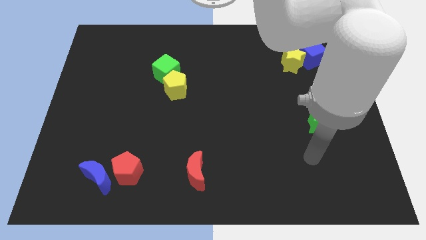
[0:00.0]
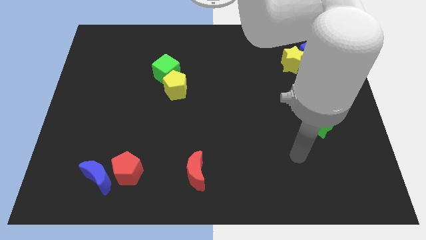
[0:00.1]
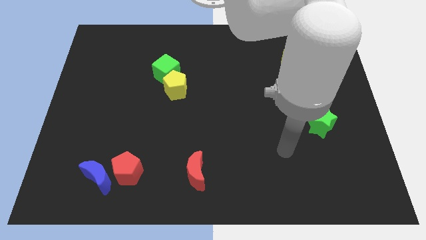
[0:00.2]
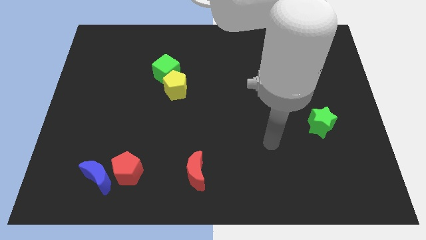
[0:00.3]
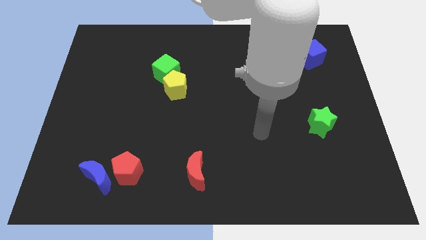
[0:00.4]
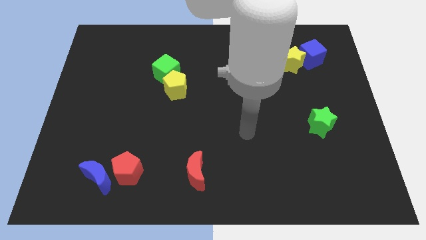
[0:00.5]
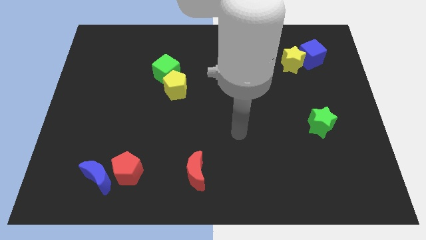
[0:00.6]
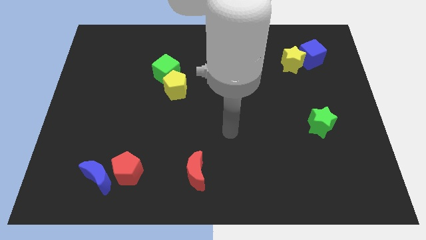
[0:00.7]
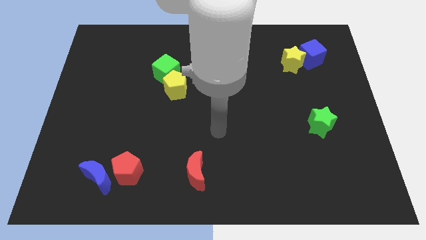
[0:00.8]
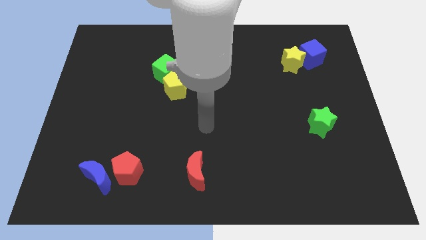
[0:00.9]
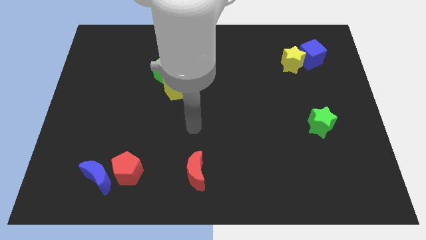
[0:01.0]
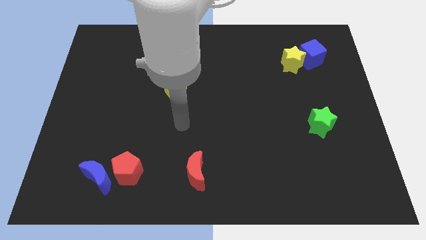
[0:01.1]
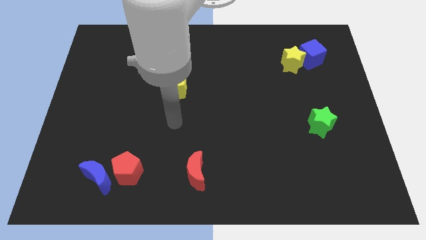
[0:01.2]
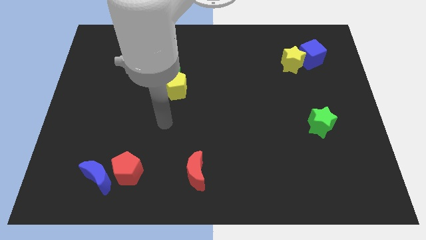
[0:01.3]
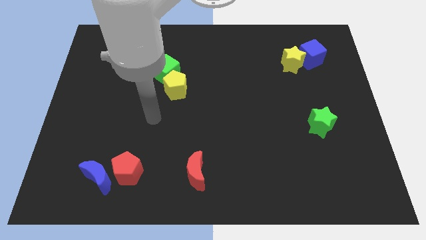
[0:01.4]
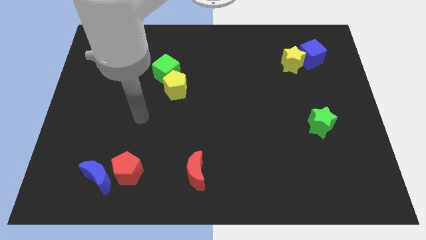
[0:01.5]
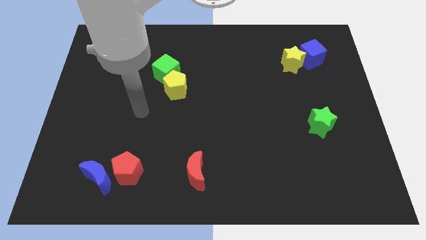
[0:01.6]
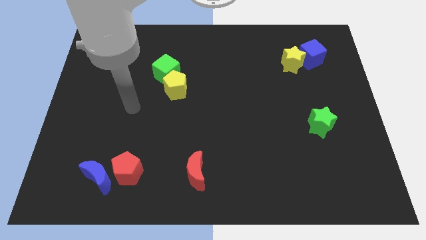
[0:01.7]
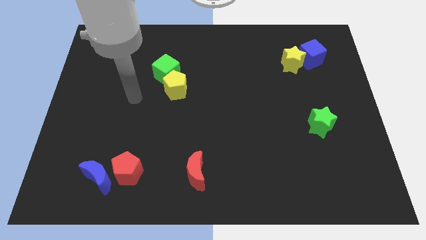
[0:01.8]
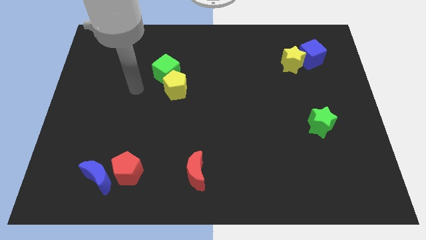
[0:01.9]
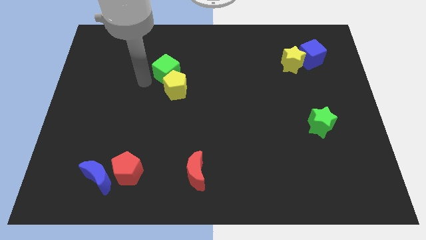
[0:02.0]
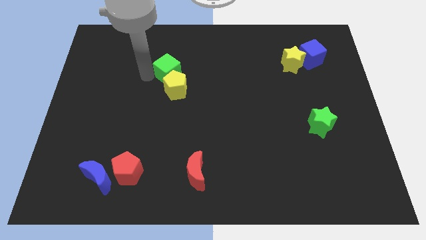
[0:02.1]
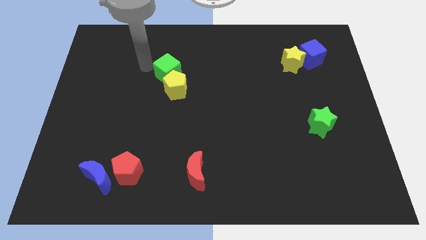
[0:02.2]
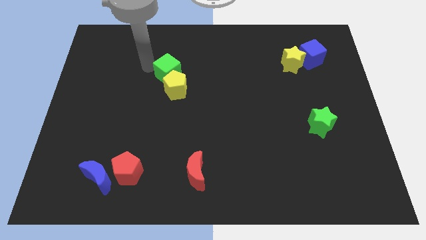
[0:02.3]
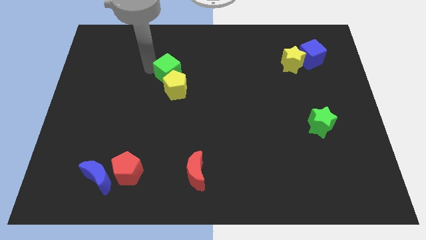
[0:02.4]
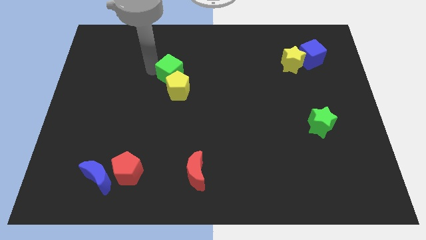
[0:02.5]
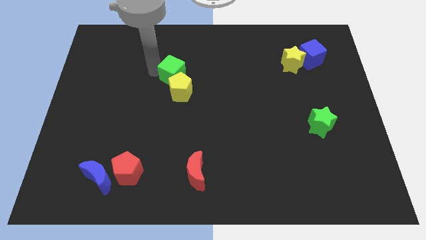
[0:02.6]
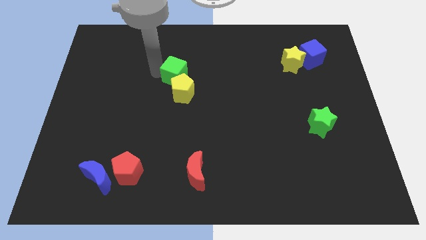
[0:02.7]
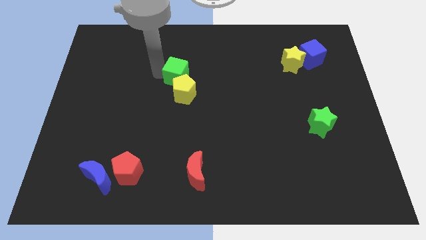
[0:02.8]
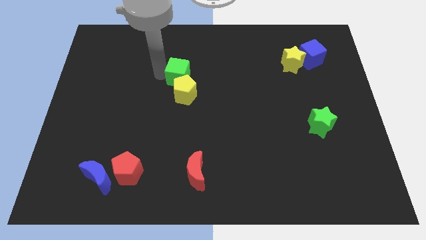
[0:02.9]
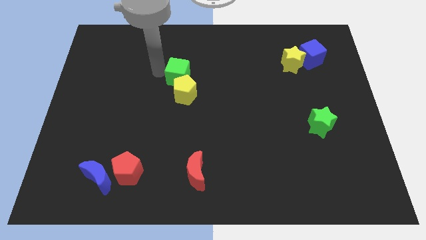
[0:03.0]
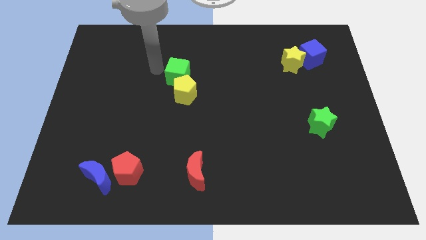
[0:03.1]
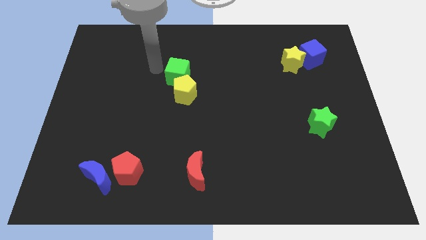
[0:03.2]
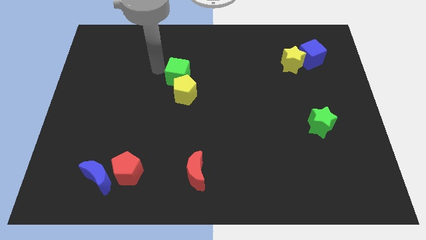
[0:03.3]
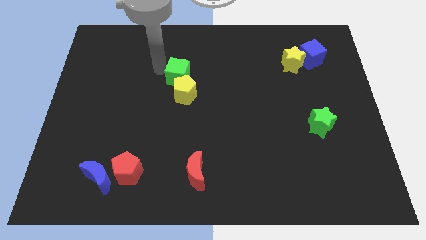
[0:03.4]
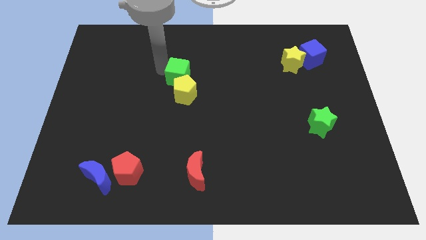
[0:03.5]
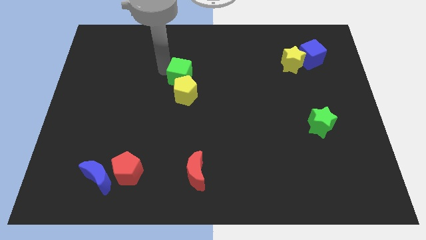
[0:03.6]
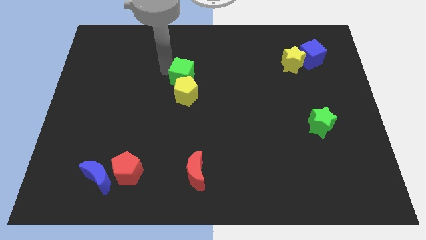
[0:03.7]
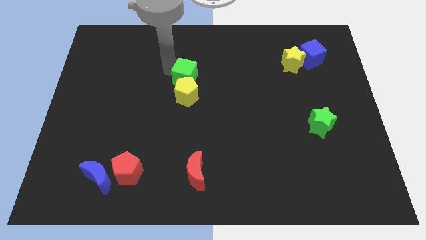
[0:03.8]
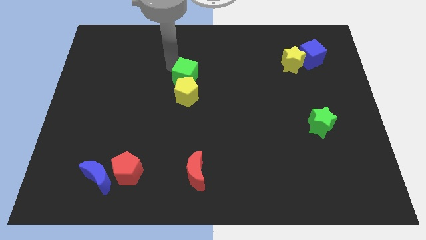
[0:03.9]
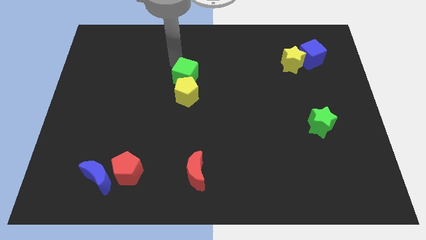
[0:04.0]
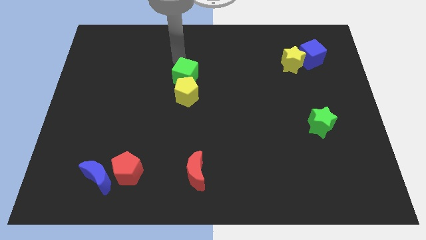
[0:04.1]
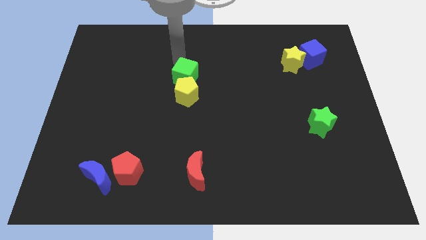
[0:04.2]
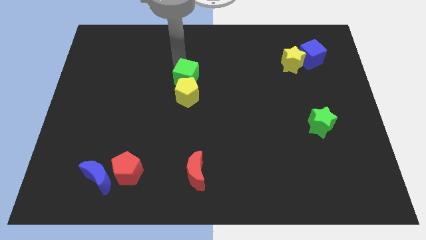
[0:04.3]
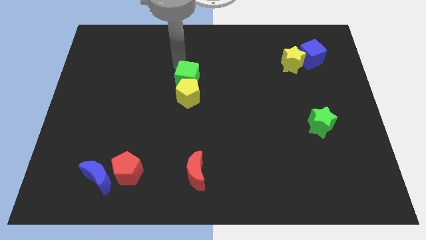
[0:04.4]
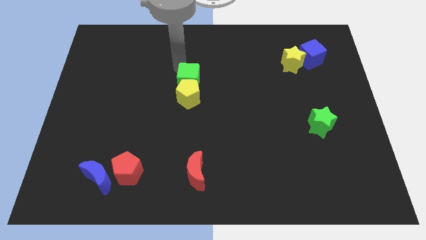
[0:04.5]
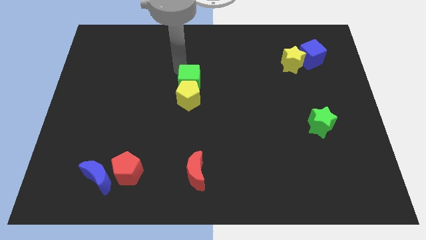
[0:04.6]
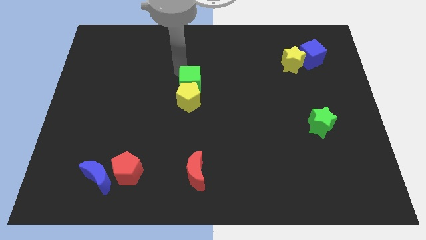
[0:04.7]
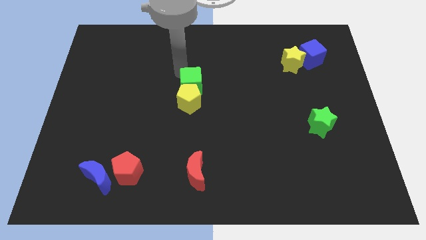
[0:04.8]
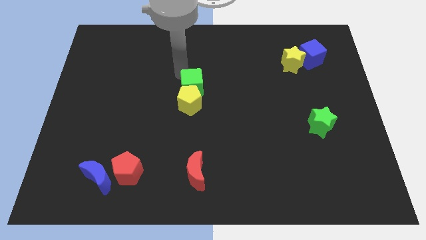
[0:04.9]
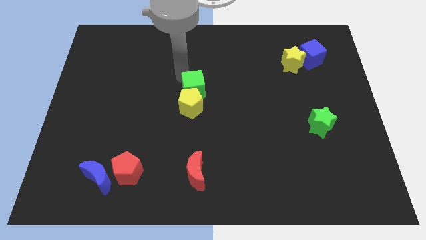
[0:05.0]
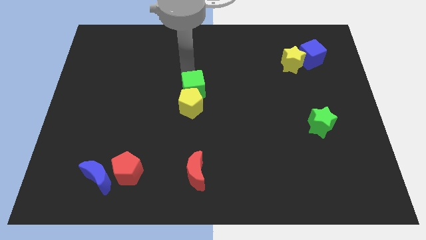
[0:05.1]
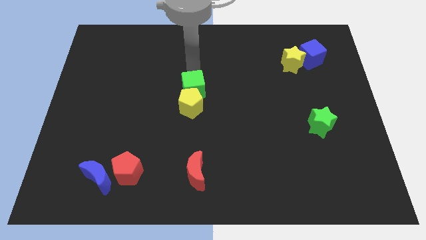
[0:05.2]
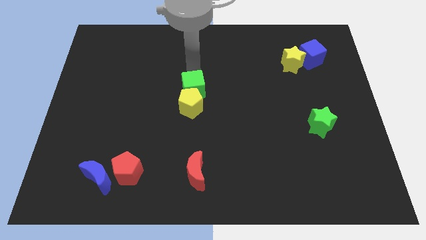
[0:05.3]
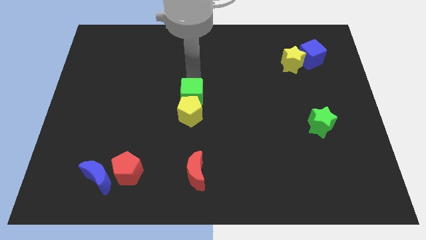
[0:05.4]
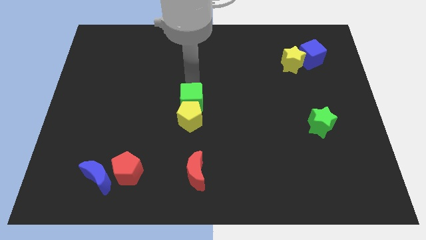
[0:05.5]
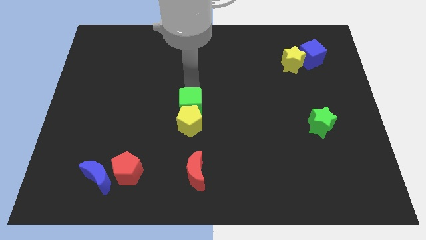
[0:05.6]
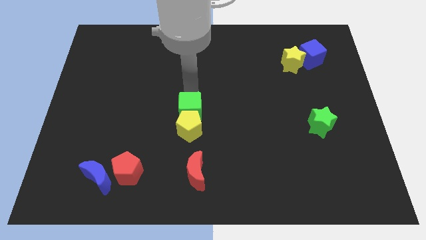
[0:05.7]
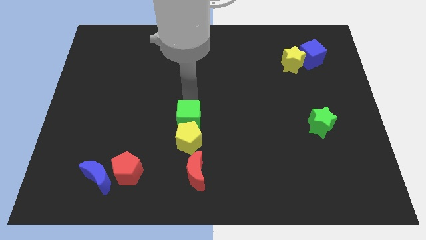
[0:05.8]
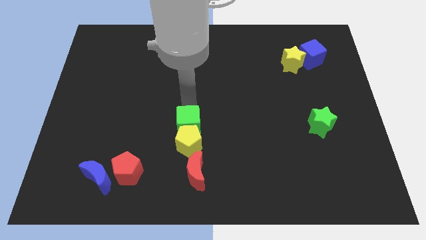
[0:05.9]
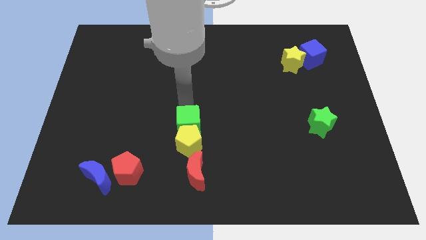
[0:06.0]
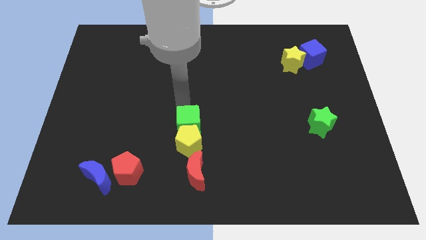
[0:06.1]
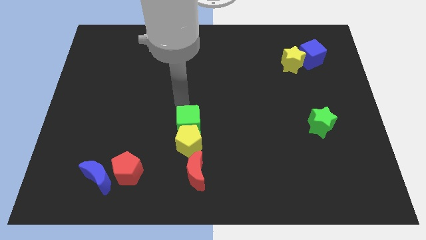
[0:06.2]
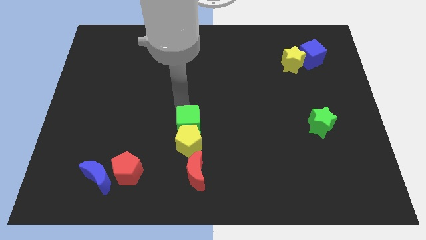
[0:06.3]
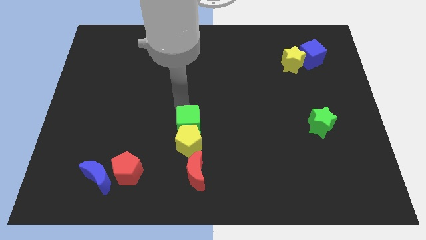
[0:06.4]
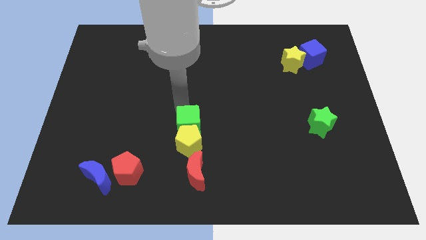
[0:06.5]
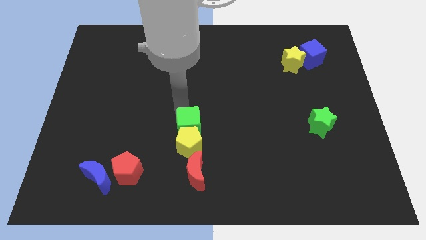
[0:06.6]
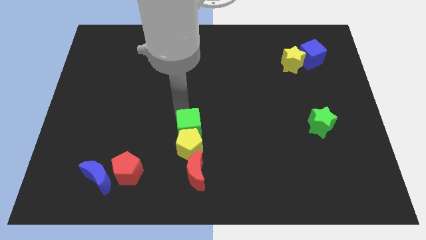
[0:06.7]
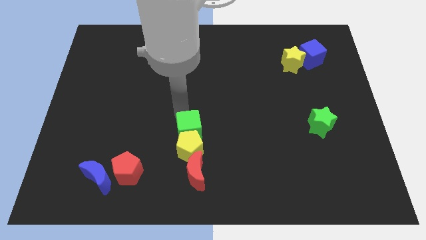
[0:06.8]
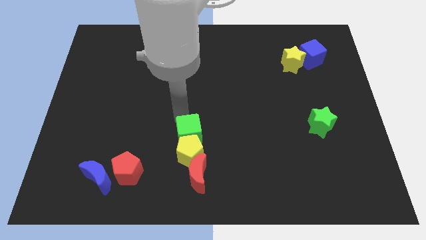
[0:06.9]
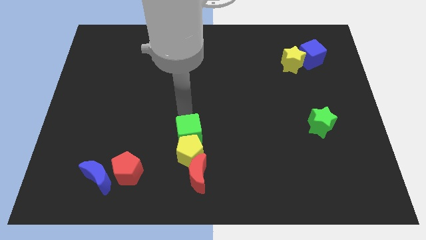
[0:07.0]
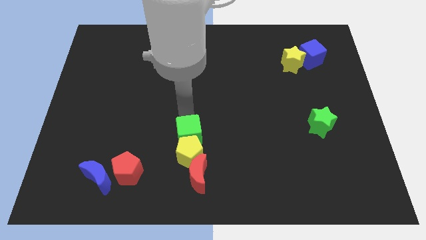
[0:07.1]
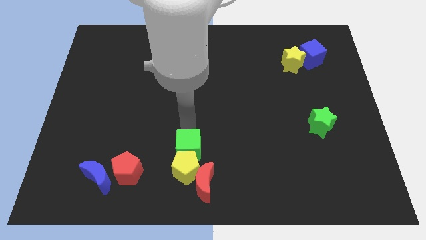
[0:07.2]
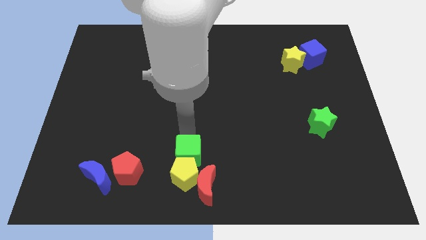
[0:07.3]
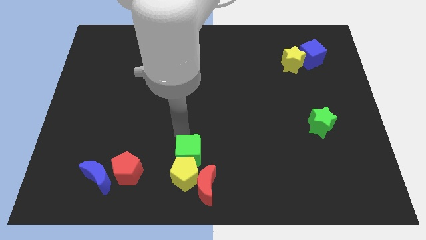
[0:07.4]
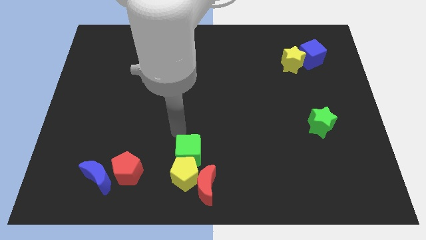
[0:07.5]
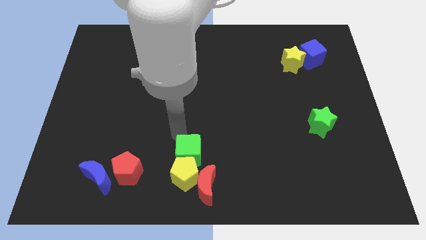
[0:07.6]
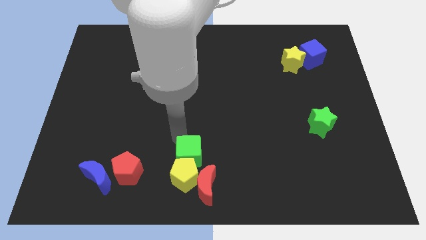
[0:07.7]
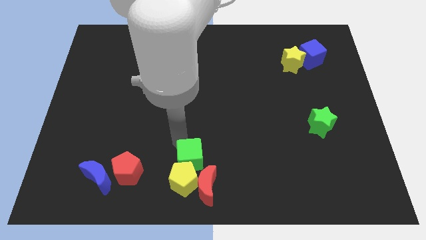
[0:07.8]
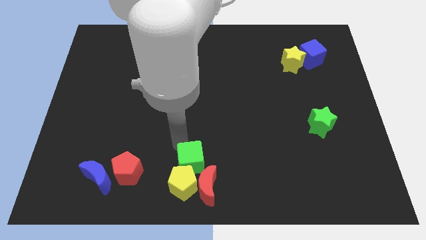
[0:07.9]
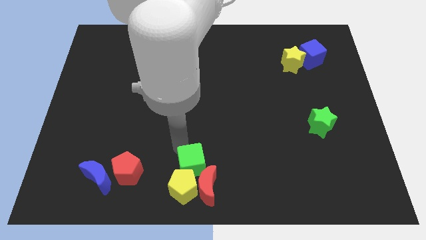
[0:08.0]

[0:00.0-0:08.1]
push the green cube towards the red moon
